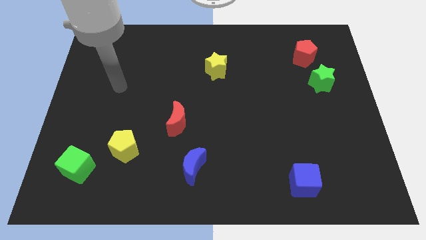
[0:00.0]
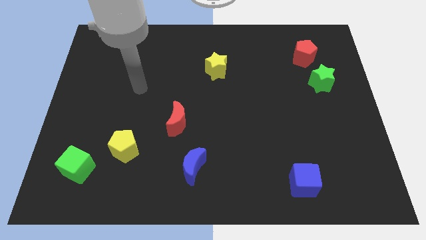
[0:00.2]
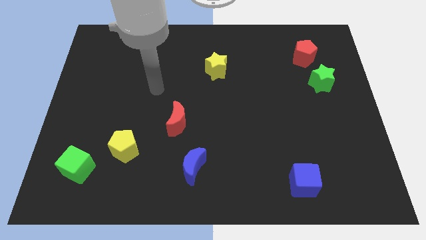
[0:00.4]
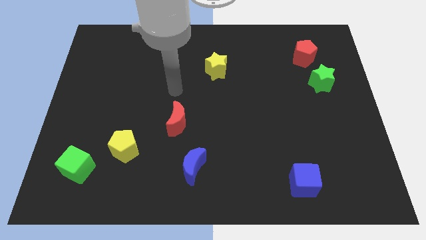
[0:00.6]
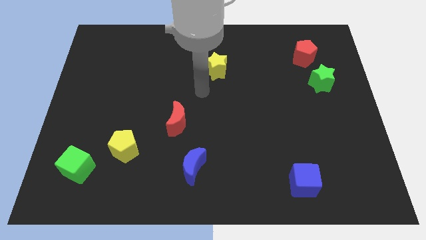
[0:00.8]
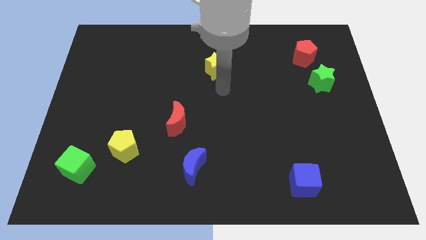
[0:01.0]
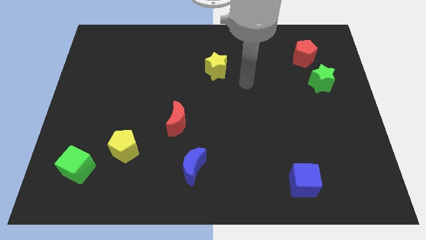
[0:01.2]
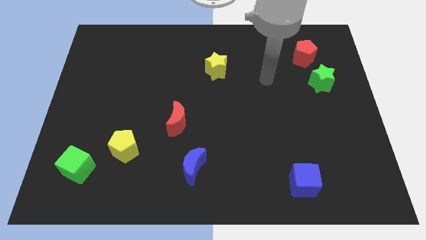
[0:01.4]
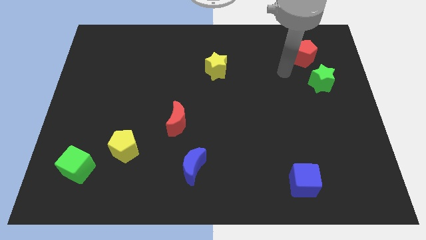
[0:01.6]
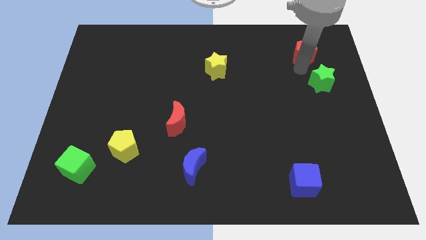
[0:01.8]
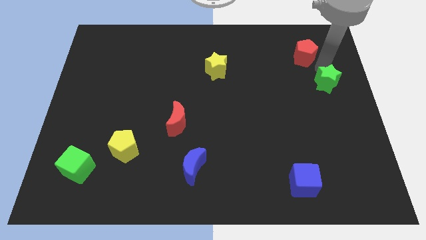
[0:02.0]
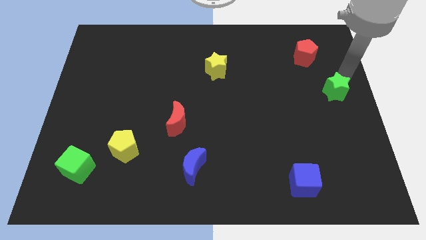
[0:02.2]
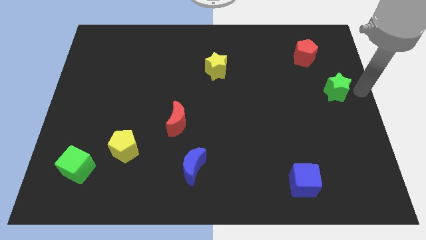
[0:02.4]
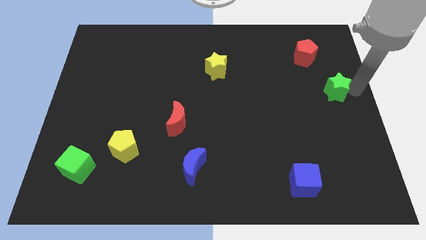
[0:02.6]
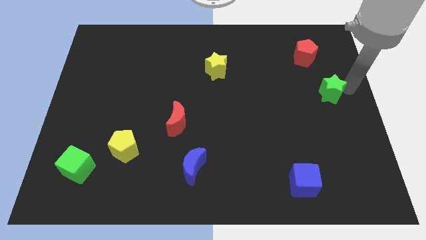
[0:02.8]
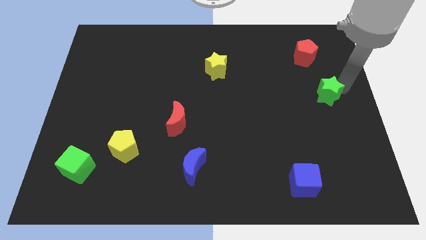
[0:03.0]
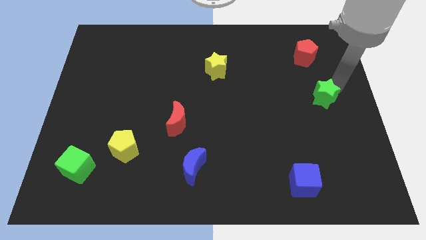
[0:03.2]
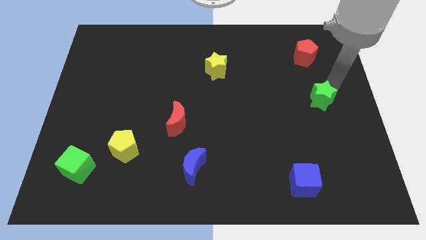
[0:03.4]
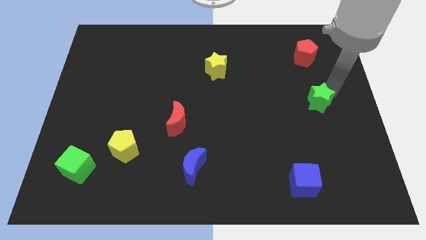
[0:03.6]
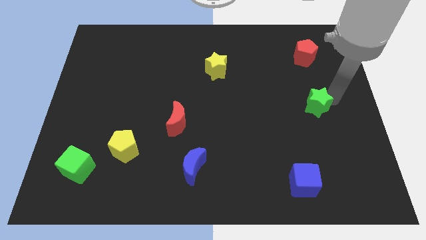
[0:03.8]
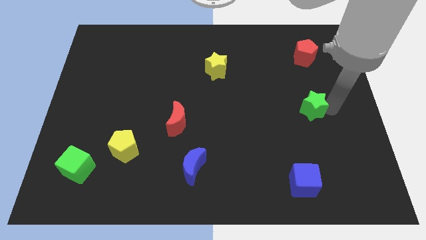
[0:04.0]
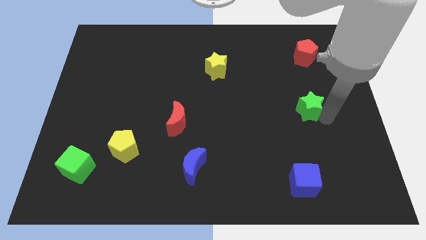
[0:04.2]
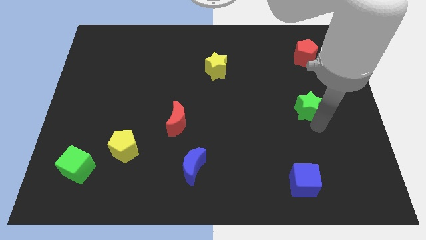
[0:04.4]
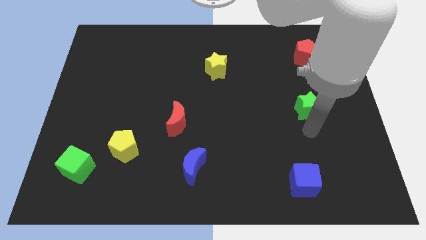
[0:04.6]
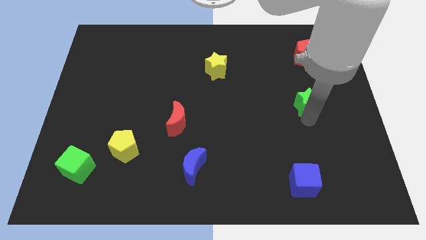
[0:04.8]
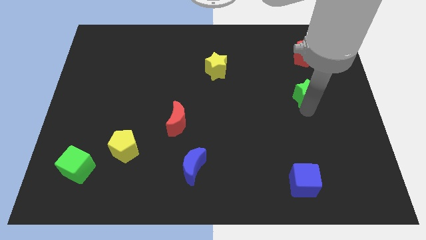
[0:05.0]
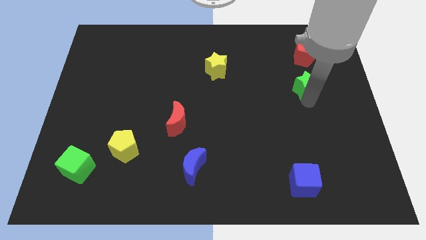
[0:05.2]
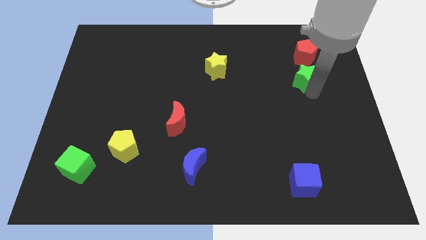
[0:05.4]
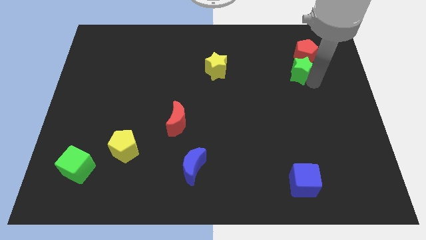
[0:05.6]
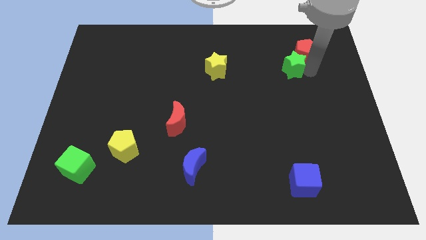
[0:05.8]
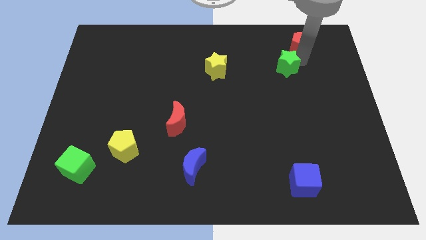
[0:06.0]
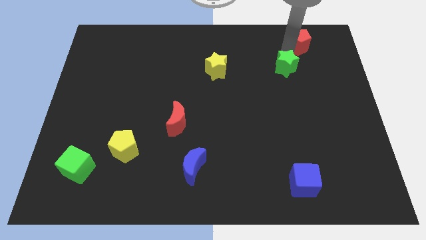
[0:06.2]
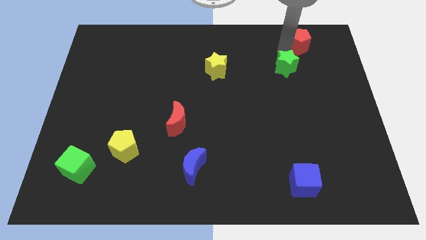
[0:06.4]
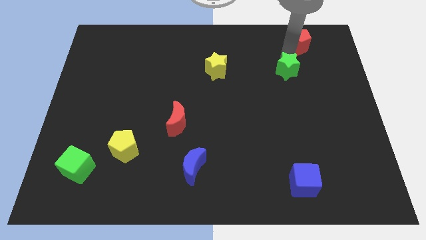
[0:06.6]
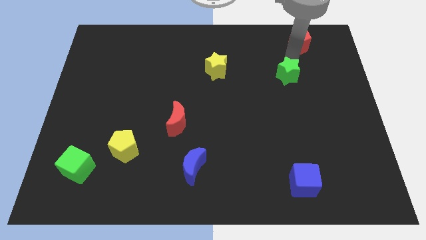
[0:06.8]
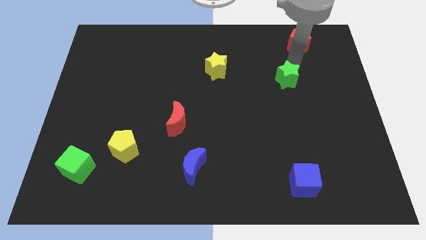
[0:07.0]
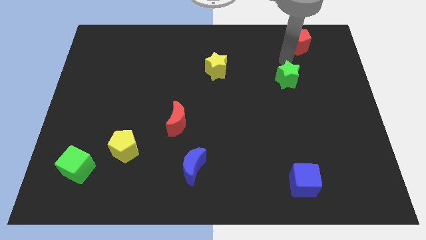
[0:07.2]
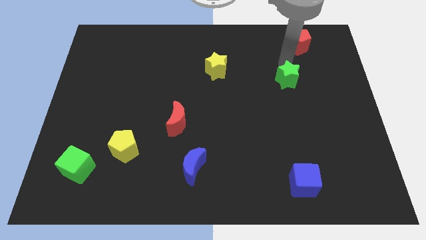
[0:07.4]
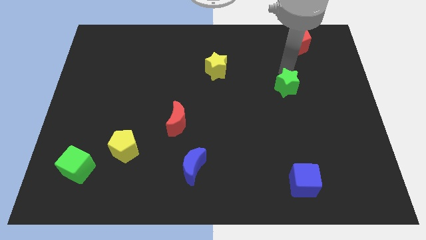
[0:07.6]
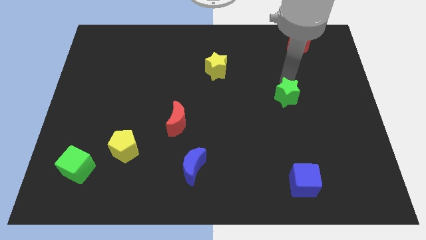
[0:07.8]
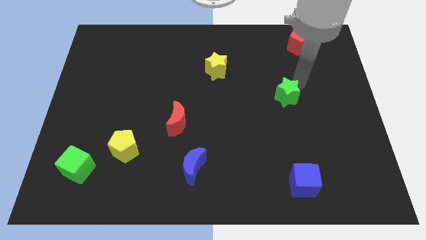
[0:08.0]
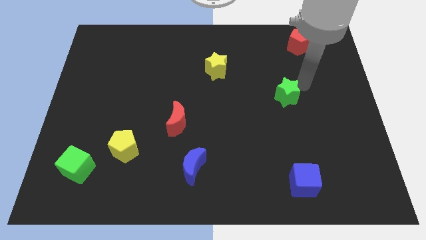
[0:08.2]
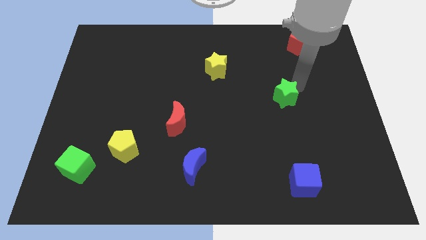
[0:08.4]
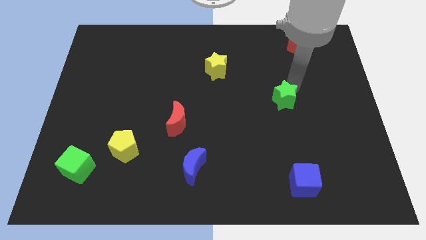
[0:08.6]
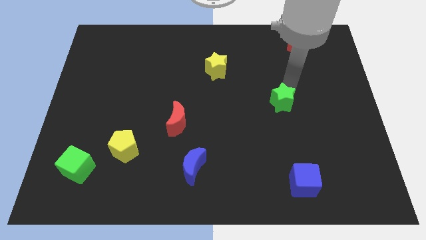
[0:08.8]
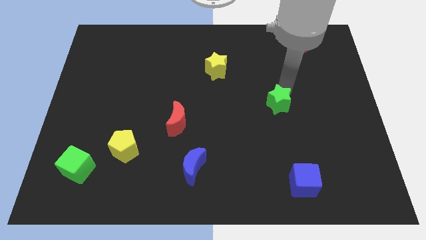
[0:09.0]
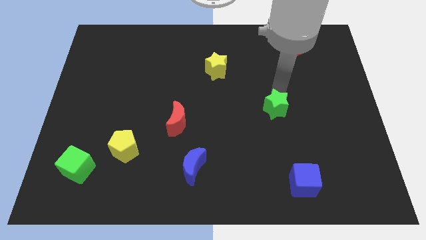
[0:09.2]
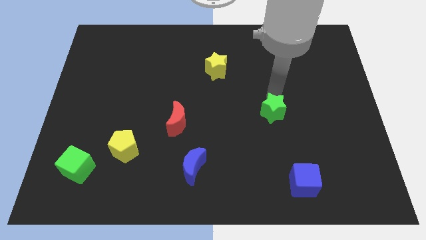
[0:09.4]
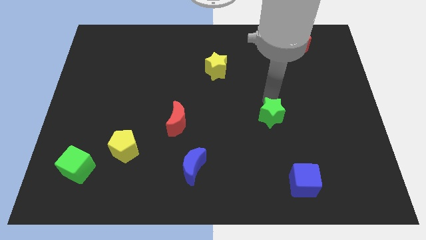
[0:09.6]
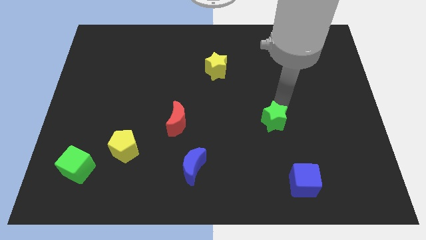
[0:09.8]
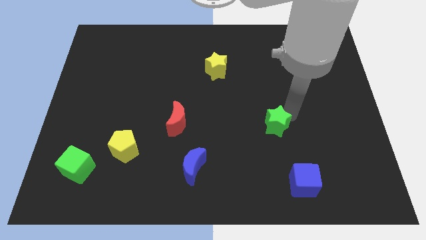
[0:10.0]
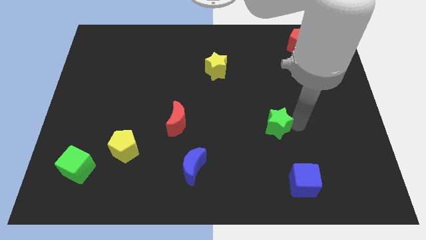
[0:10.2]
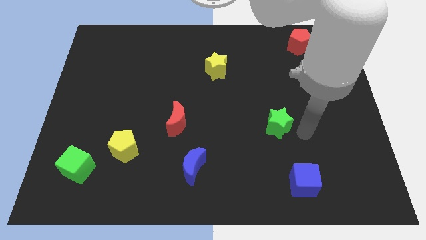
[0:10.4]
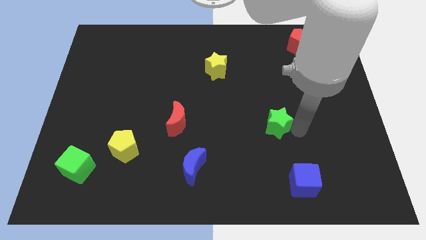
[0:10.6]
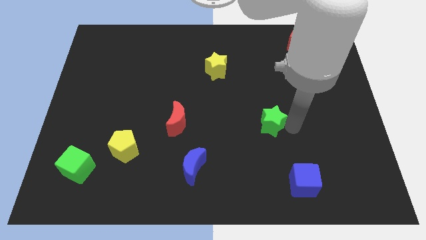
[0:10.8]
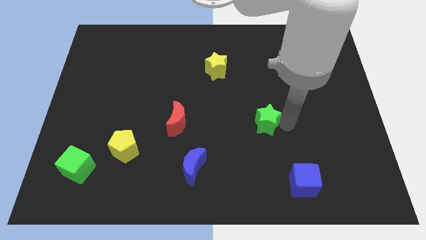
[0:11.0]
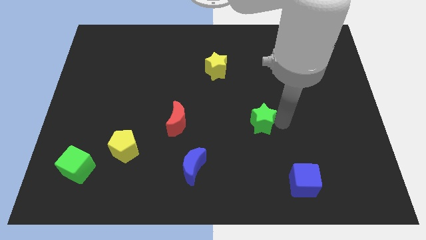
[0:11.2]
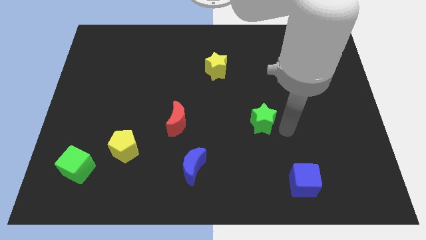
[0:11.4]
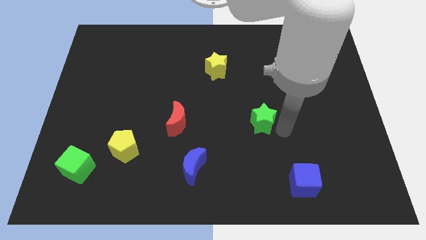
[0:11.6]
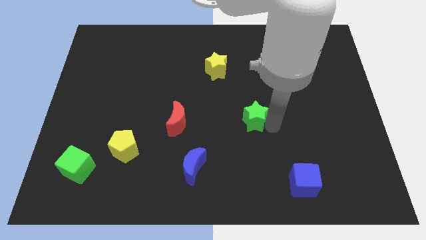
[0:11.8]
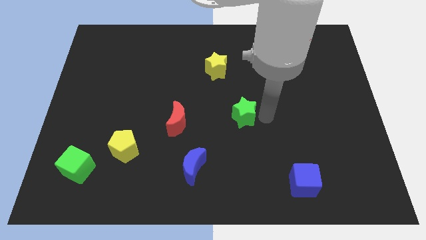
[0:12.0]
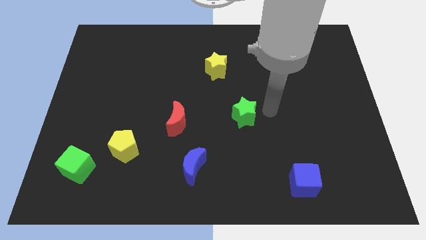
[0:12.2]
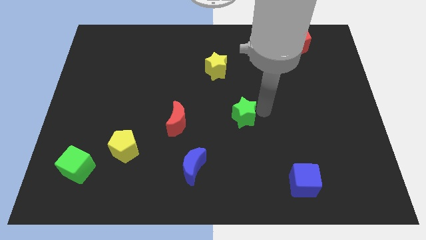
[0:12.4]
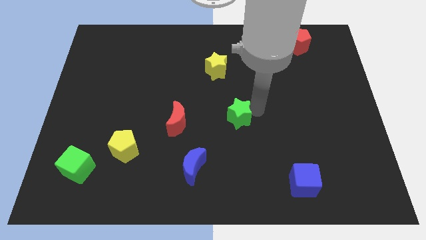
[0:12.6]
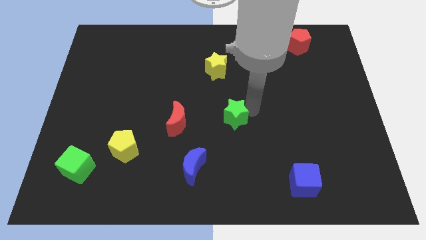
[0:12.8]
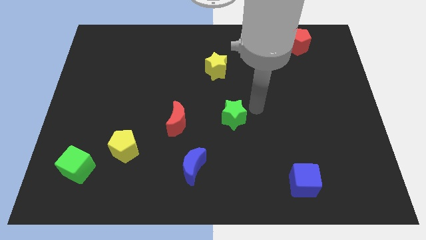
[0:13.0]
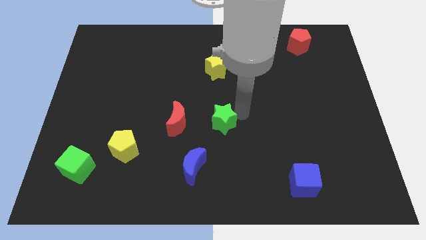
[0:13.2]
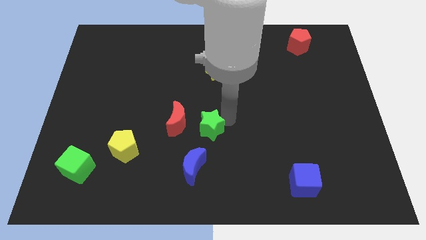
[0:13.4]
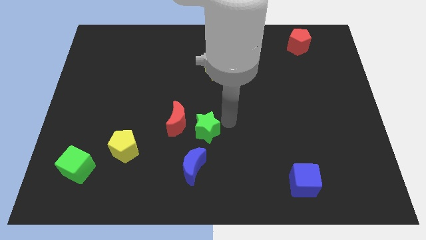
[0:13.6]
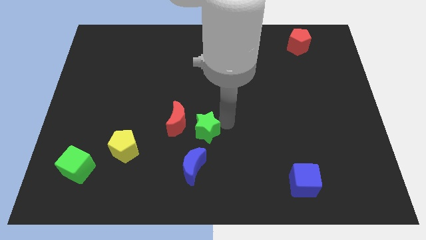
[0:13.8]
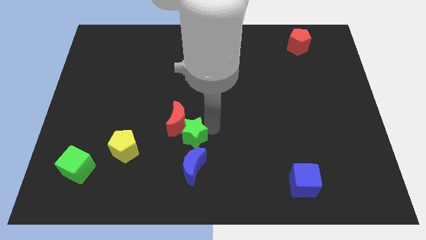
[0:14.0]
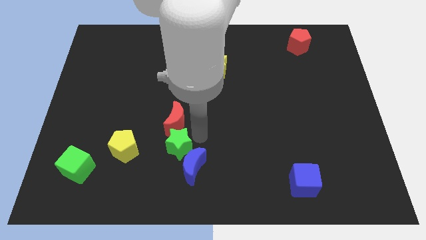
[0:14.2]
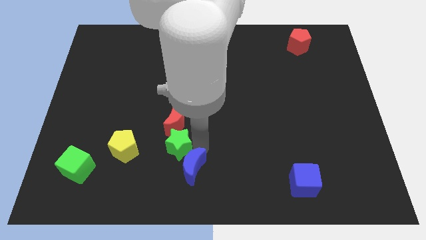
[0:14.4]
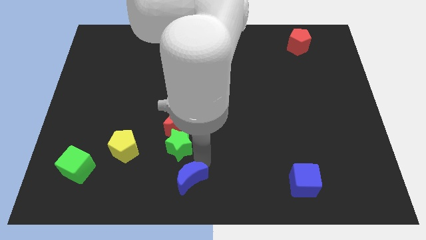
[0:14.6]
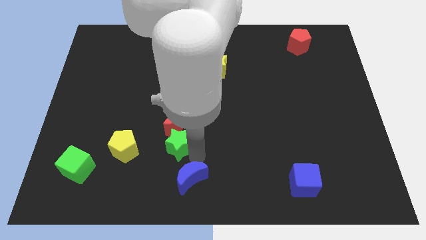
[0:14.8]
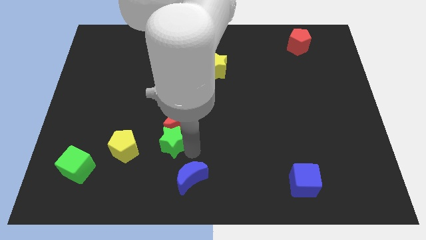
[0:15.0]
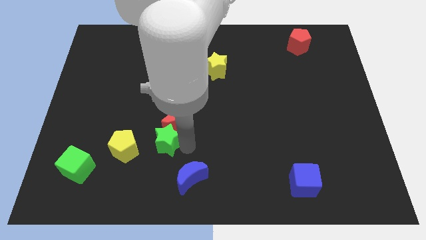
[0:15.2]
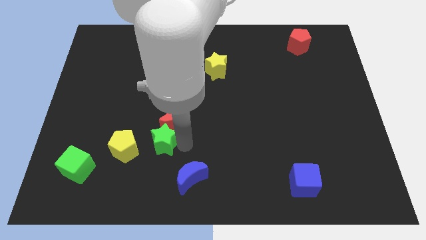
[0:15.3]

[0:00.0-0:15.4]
push the green star to the top right of the yellow pentagon
